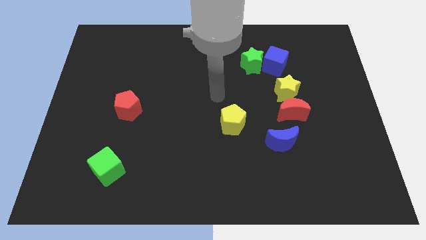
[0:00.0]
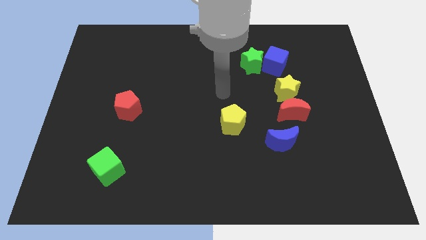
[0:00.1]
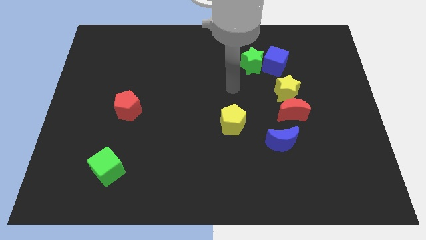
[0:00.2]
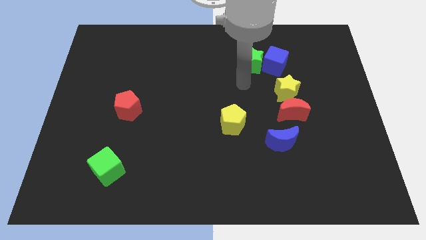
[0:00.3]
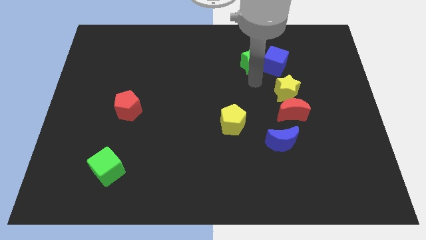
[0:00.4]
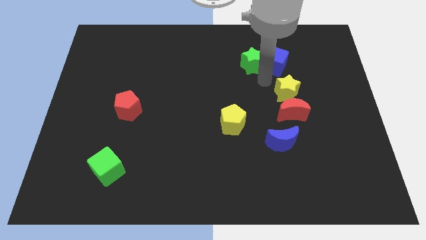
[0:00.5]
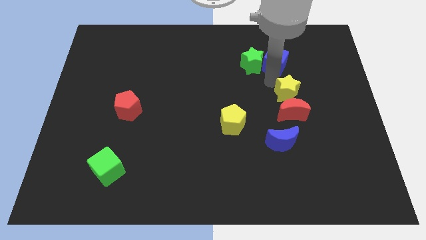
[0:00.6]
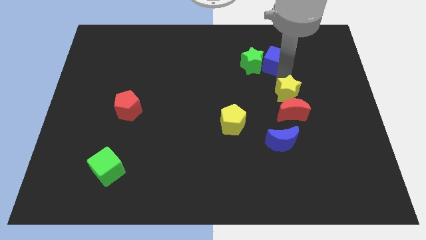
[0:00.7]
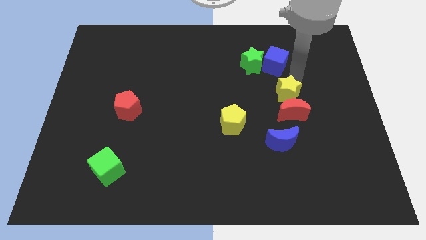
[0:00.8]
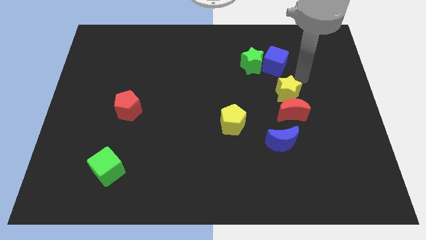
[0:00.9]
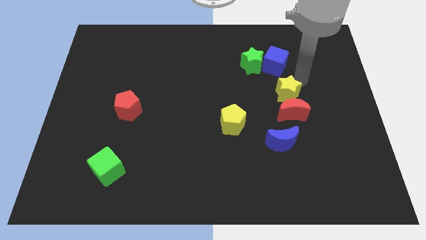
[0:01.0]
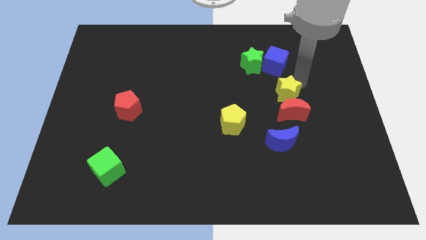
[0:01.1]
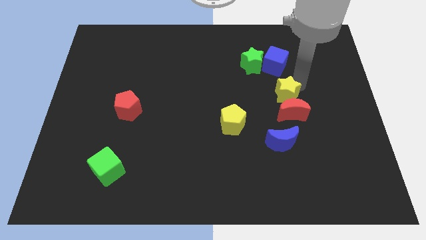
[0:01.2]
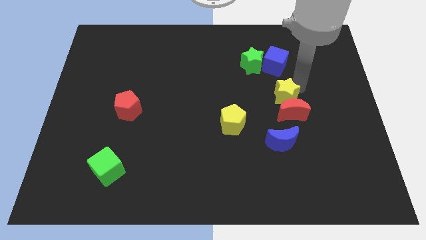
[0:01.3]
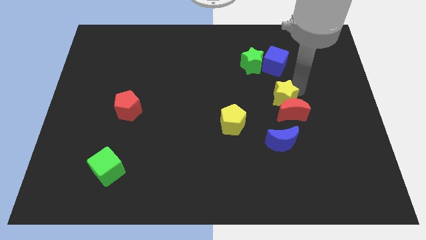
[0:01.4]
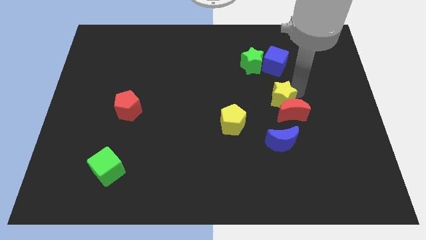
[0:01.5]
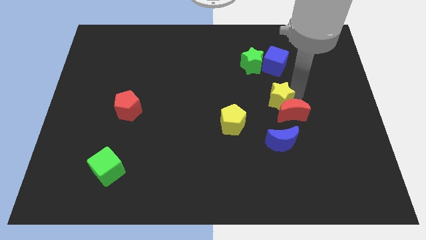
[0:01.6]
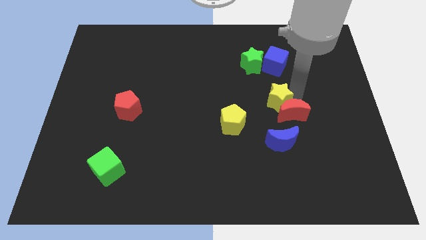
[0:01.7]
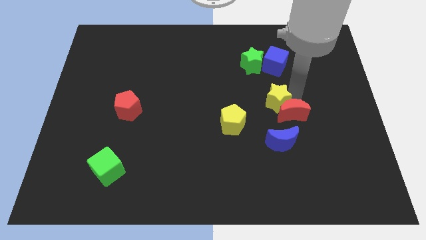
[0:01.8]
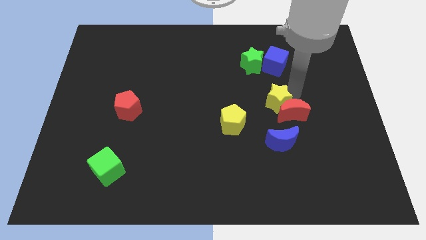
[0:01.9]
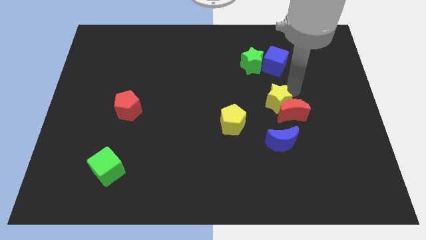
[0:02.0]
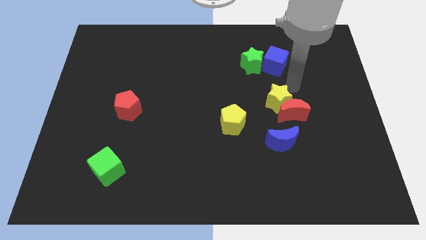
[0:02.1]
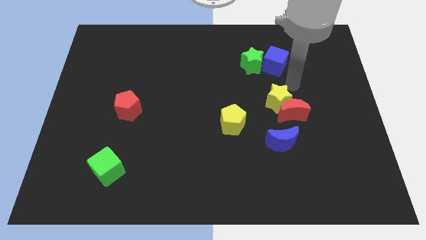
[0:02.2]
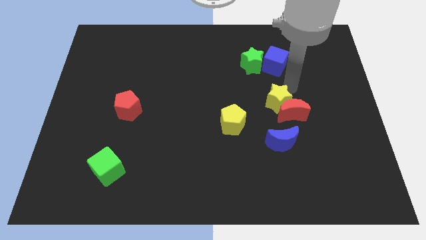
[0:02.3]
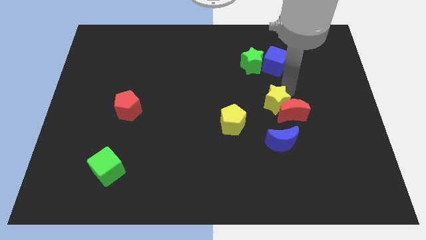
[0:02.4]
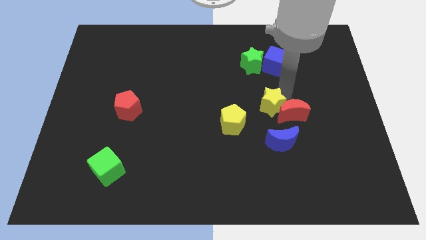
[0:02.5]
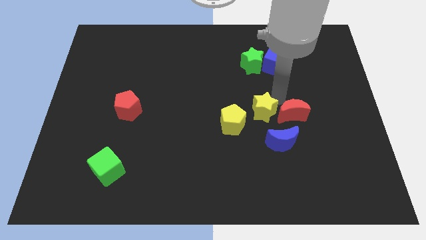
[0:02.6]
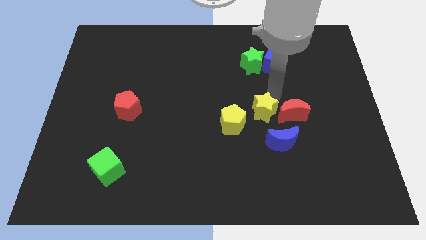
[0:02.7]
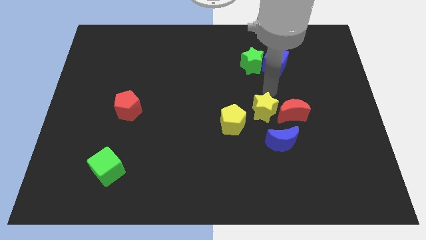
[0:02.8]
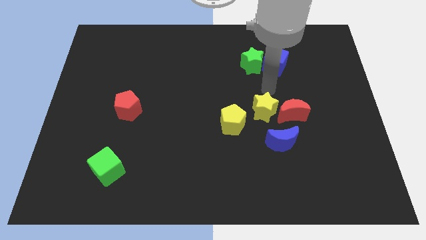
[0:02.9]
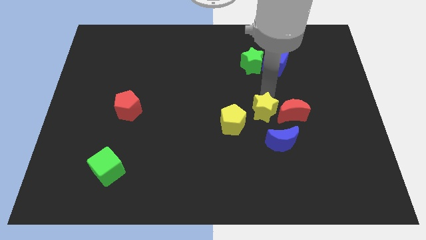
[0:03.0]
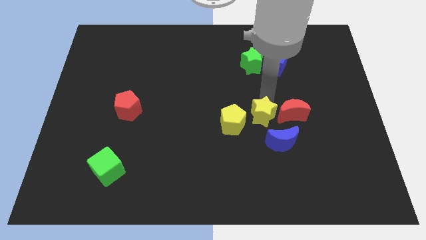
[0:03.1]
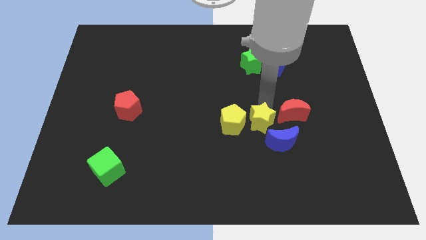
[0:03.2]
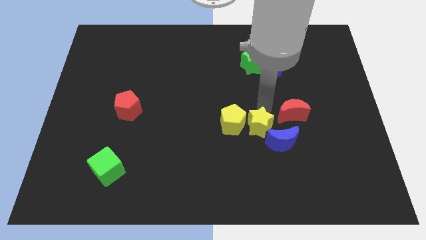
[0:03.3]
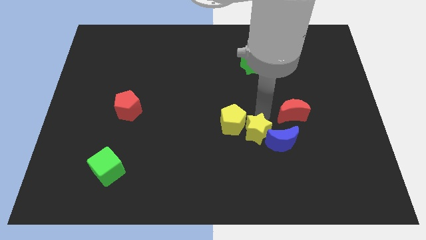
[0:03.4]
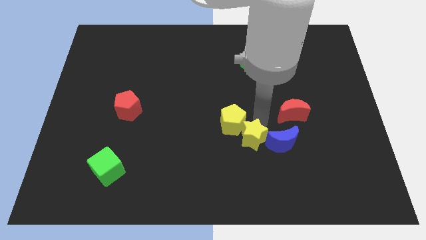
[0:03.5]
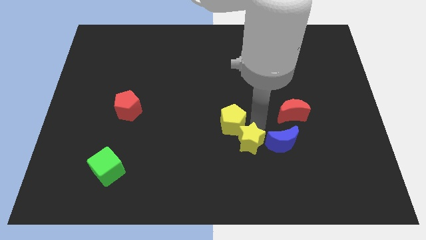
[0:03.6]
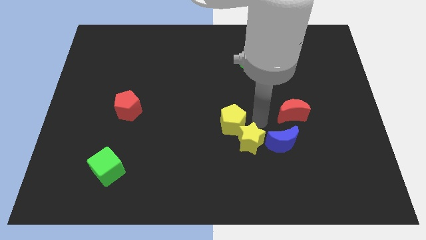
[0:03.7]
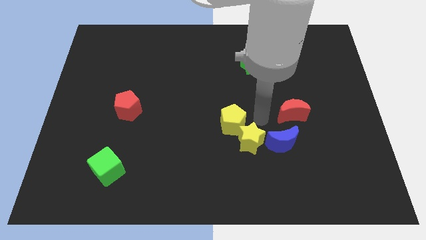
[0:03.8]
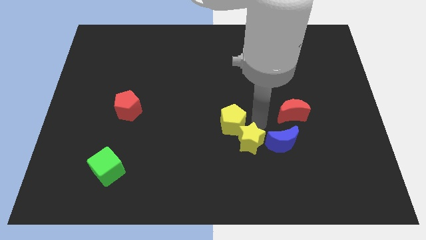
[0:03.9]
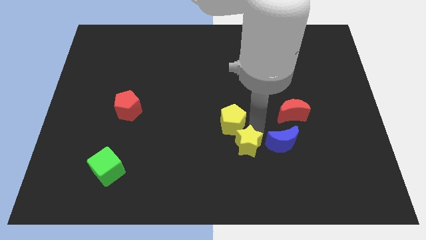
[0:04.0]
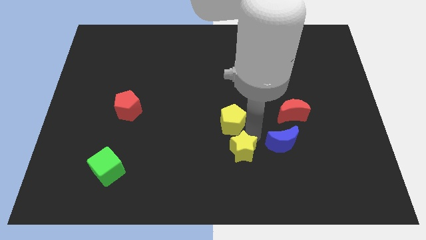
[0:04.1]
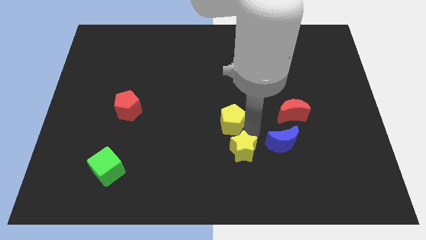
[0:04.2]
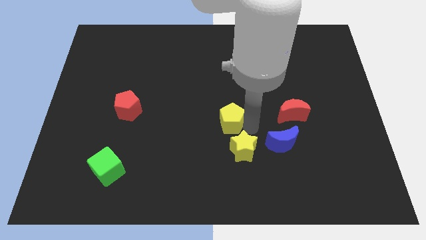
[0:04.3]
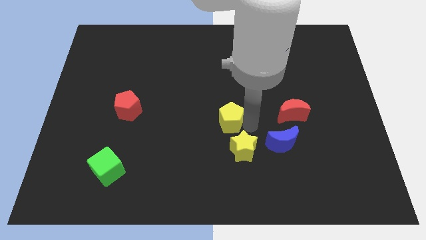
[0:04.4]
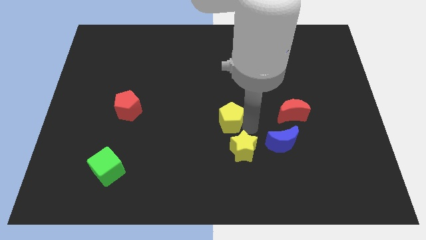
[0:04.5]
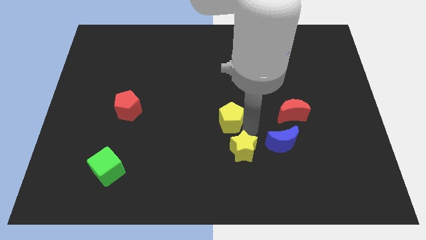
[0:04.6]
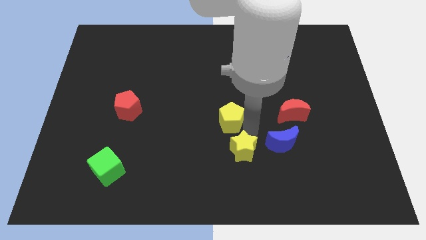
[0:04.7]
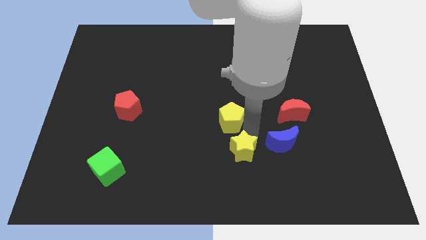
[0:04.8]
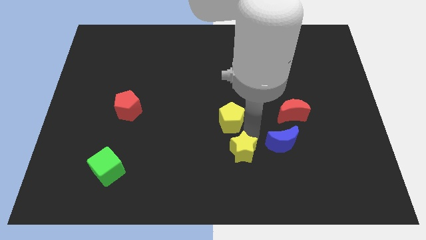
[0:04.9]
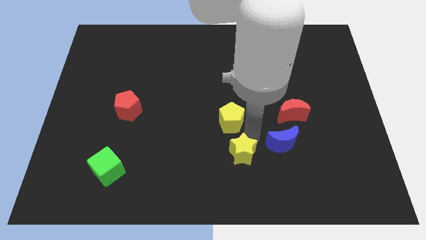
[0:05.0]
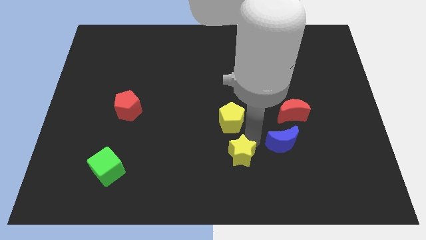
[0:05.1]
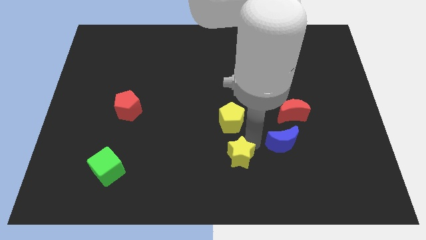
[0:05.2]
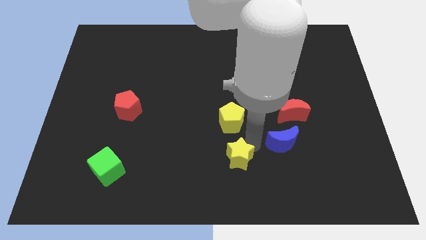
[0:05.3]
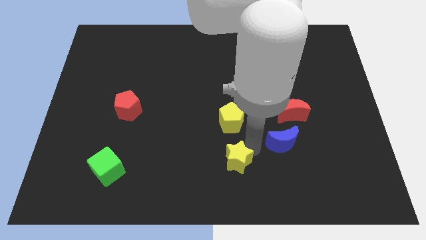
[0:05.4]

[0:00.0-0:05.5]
push the yellow star to the bottom side
